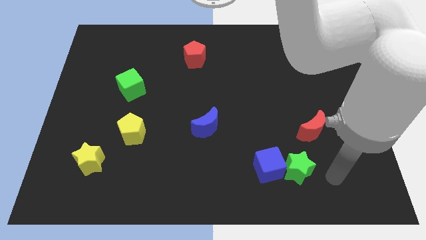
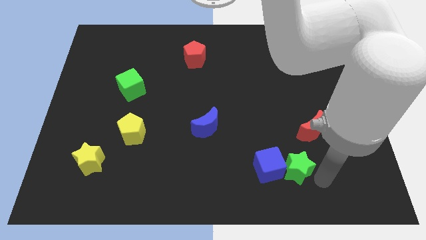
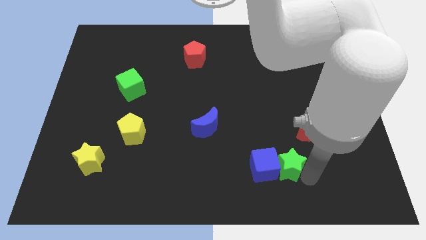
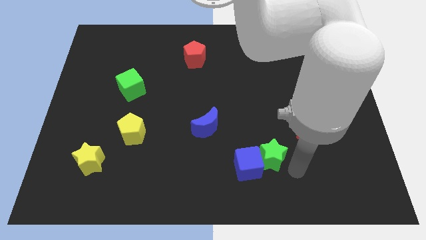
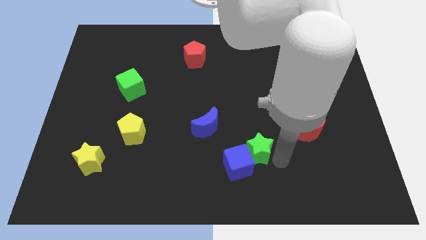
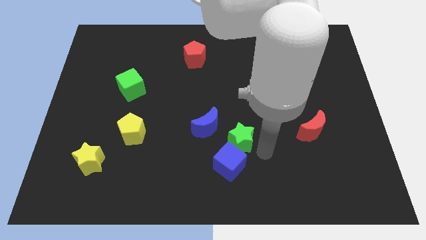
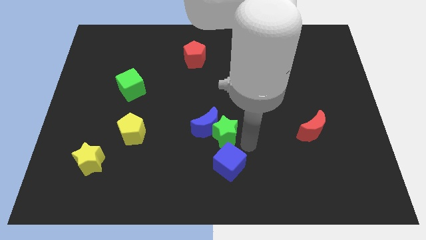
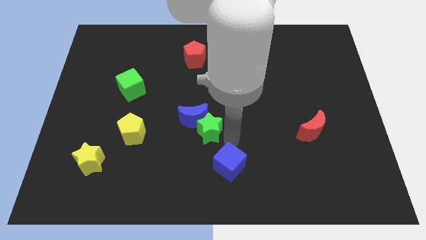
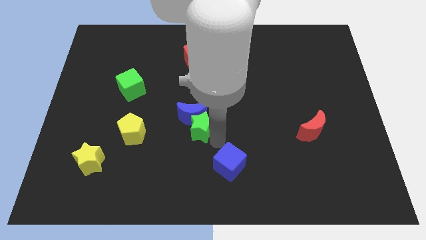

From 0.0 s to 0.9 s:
move the blue cube away from the green star

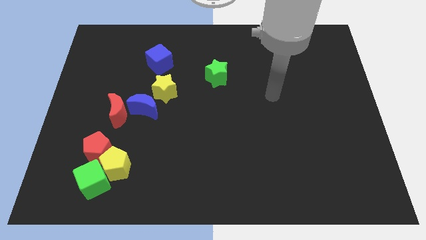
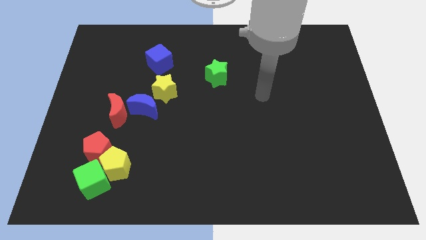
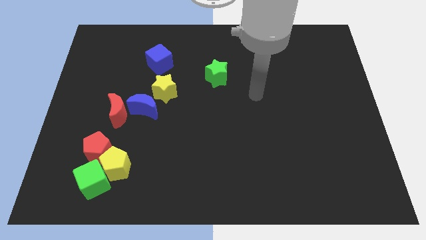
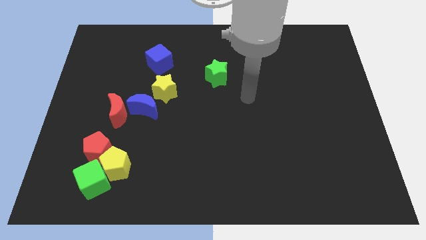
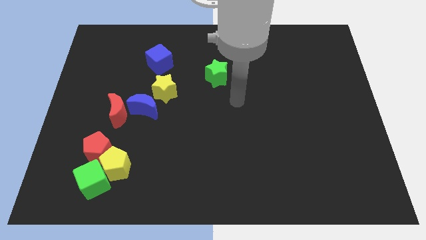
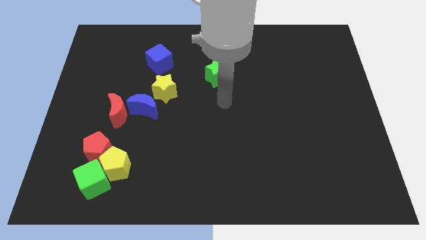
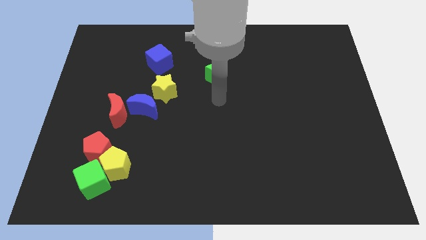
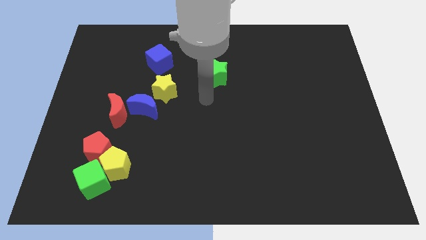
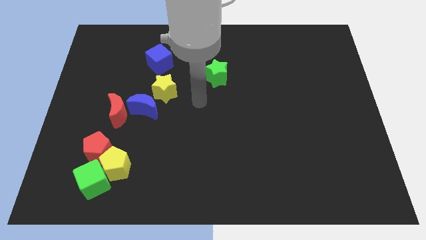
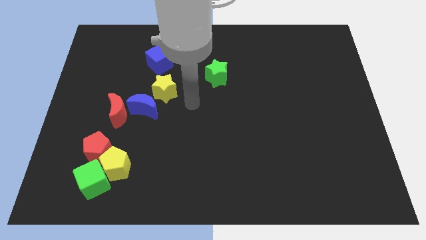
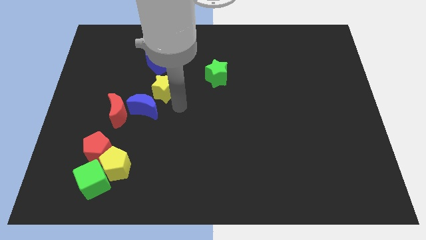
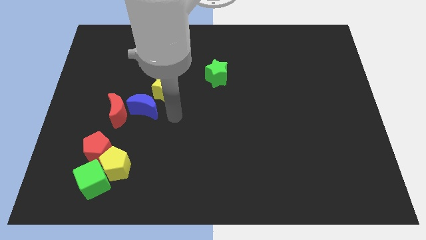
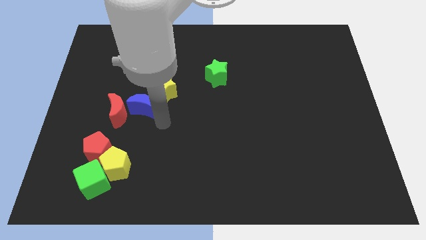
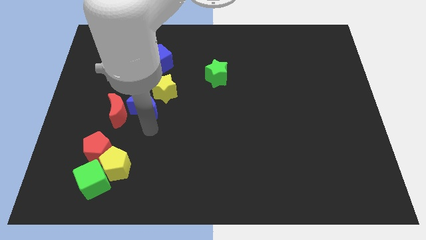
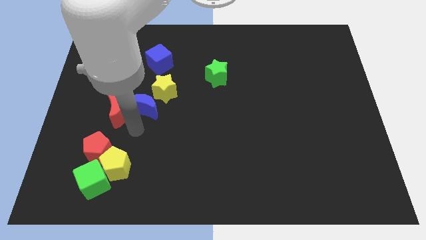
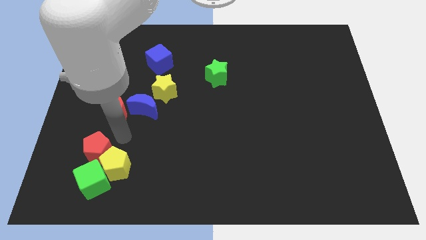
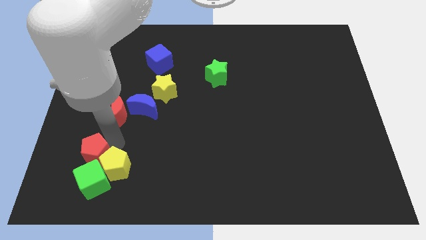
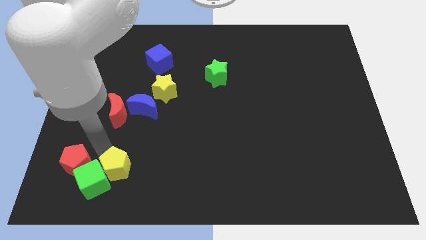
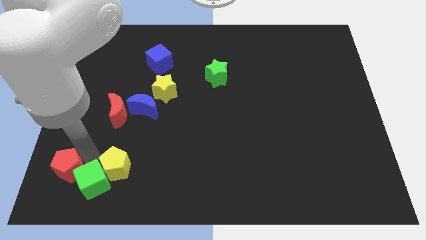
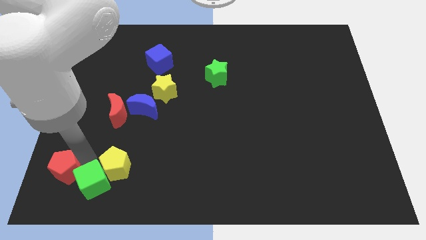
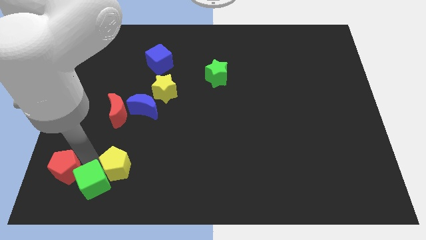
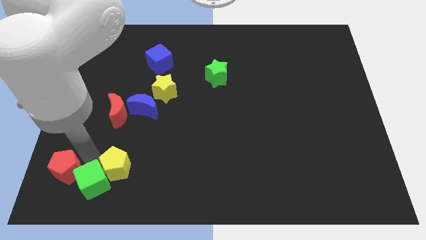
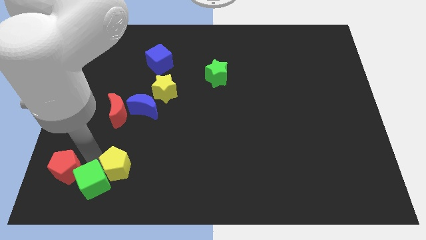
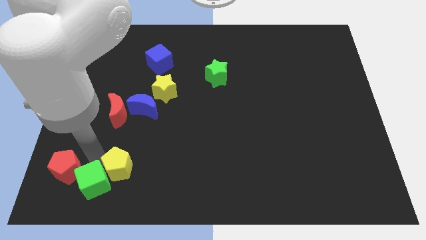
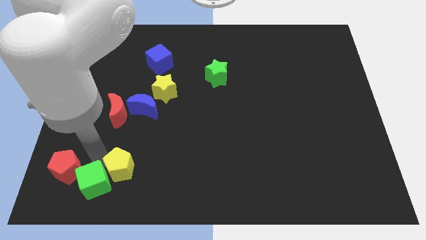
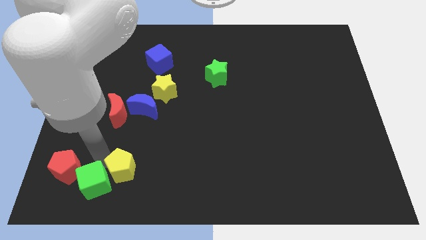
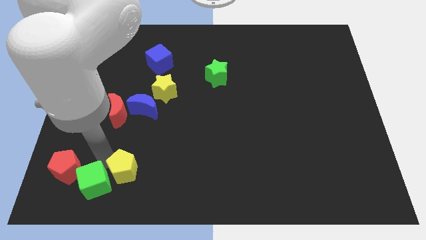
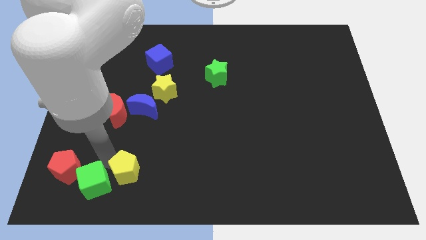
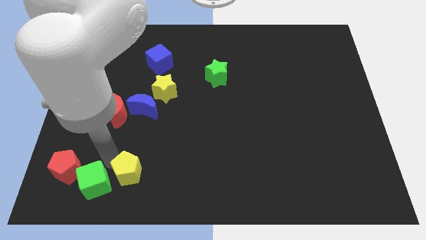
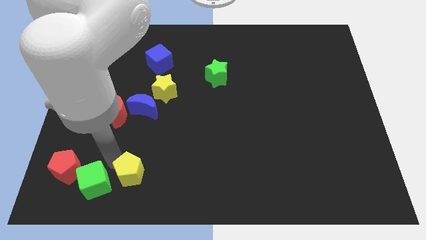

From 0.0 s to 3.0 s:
separate the yellow pentagon from the green cube and red pentagon

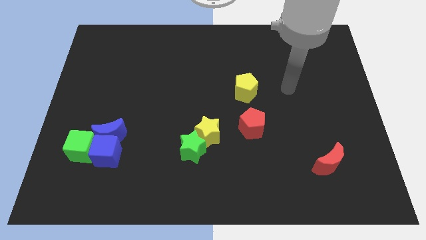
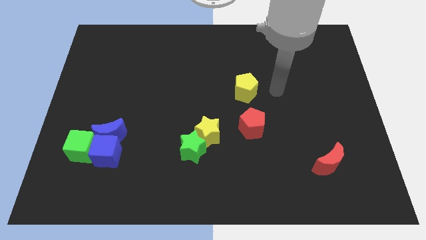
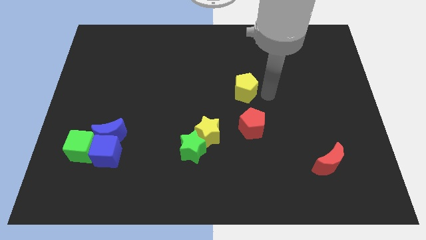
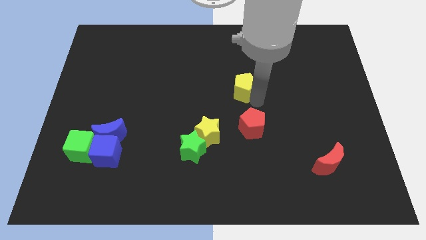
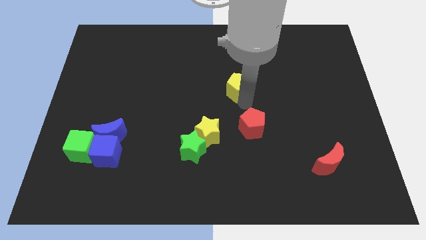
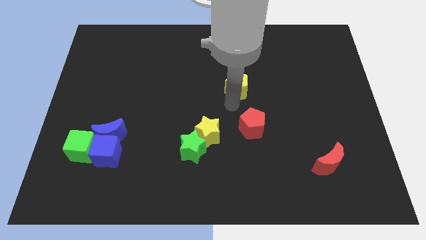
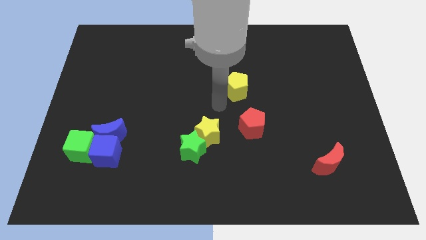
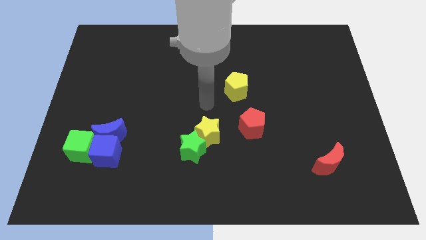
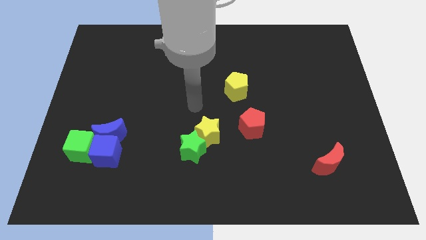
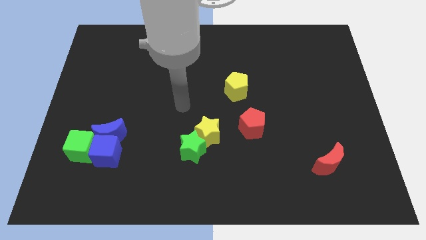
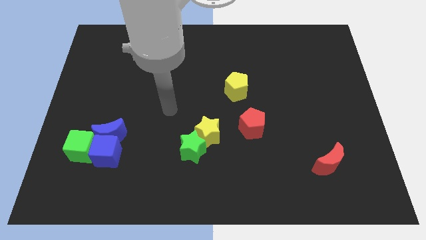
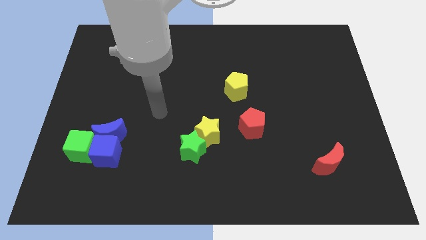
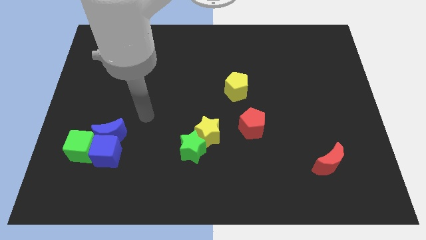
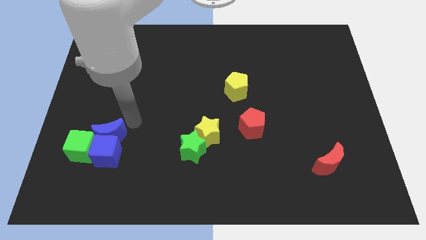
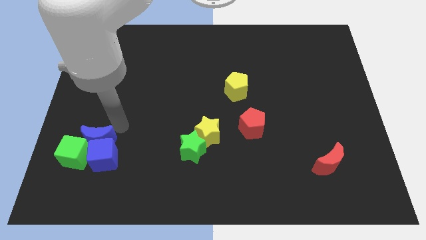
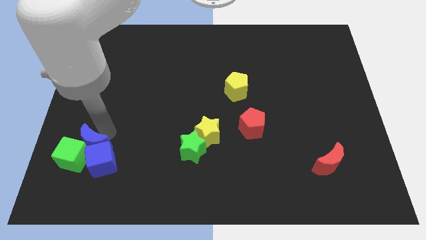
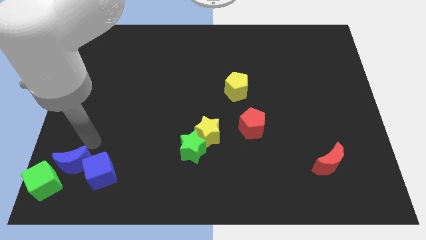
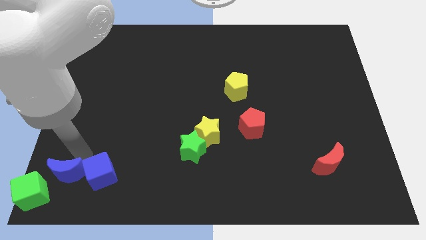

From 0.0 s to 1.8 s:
pull the blue cube apart from the blue moon and green cube

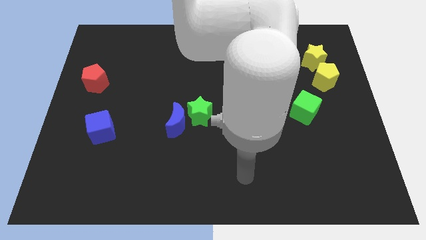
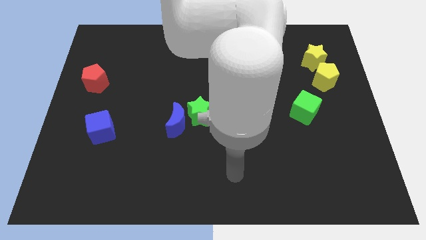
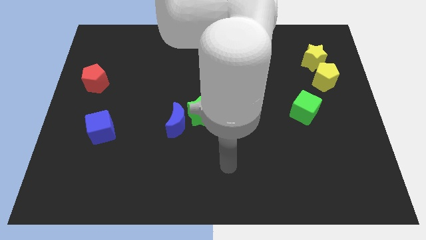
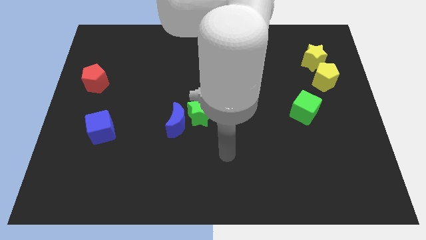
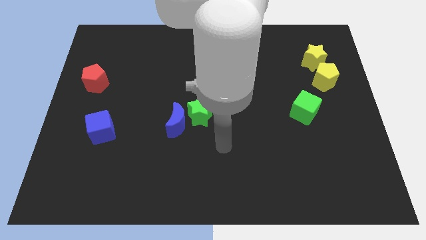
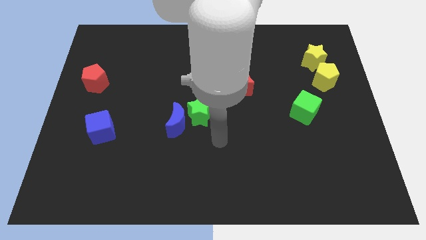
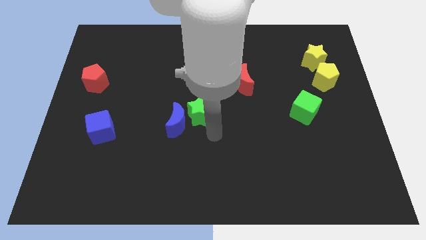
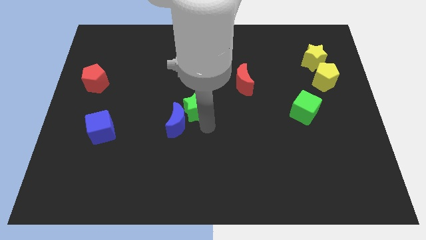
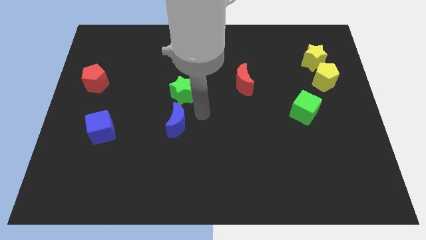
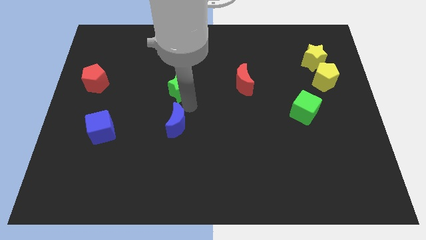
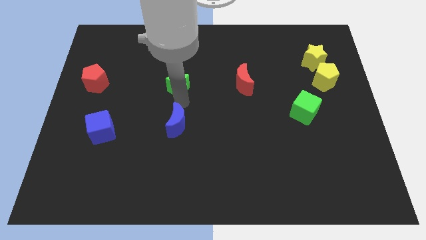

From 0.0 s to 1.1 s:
move the blue moon away from the green star

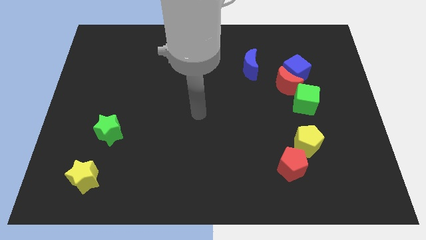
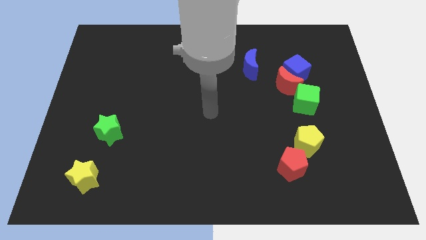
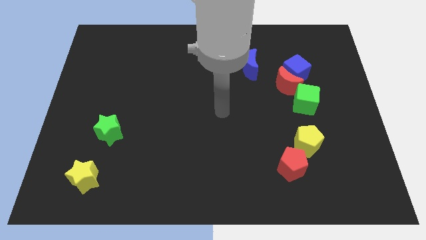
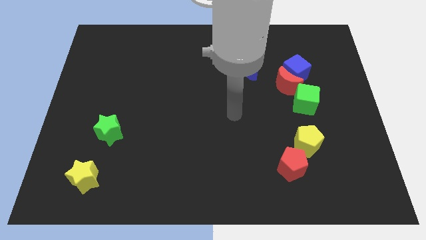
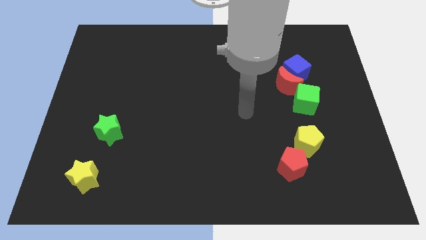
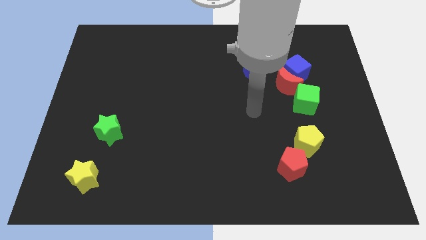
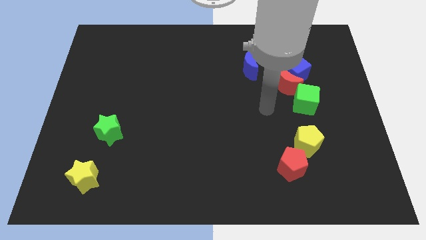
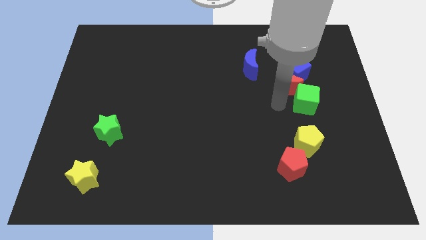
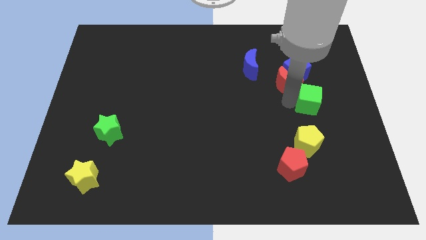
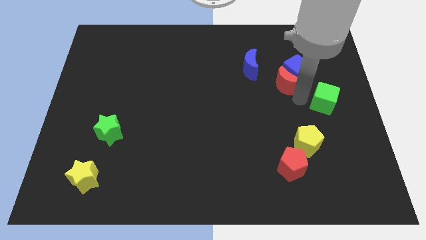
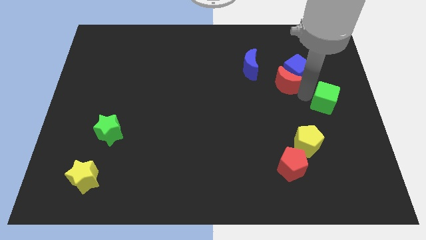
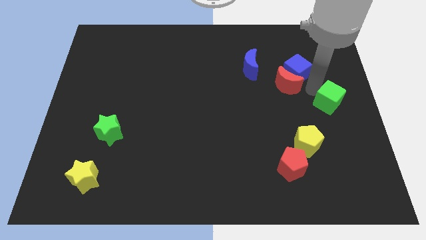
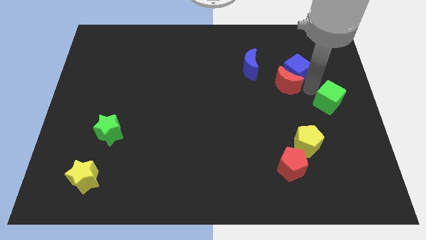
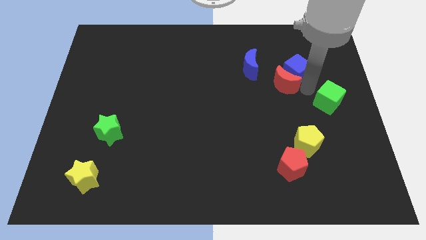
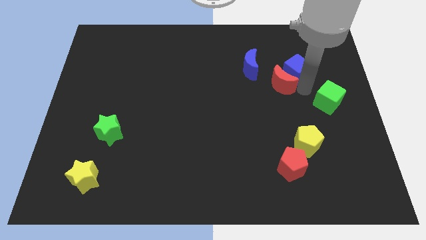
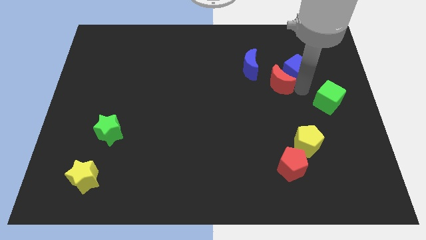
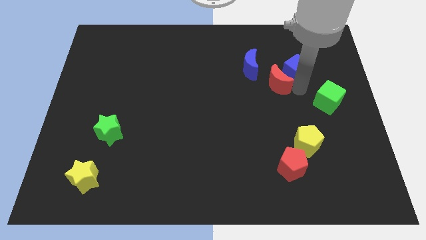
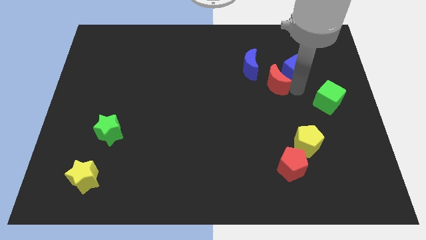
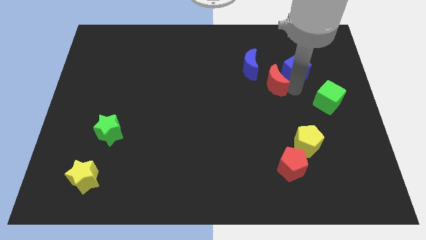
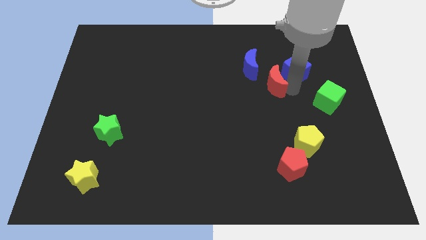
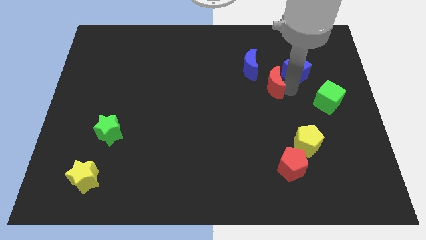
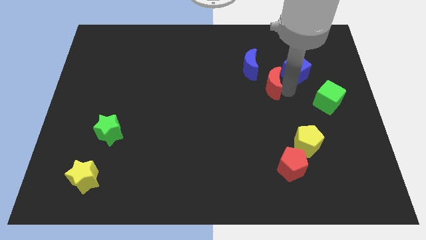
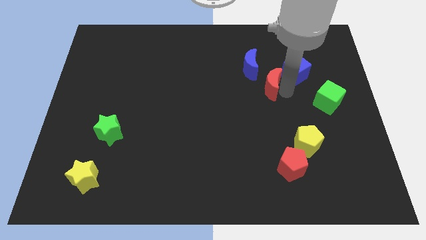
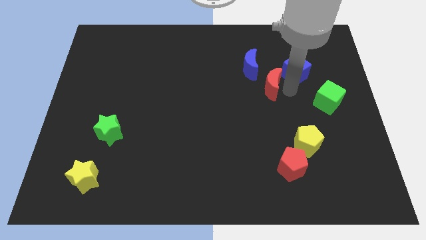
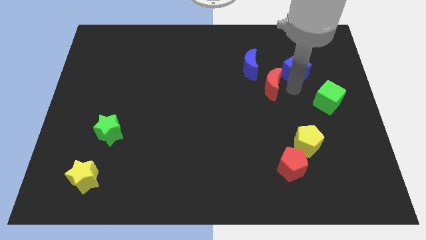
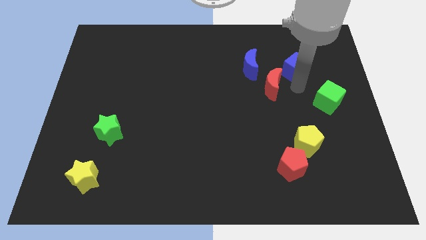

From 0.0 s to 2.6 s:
pull the red moon apart from the blue cube and green cube
